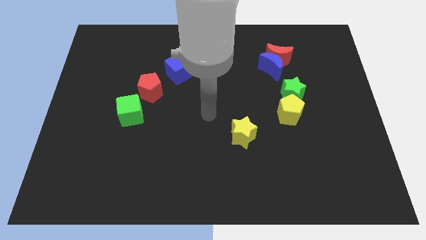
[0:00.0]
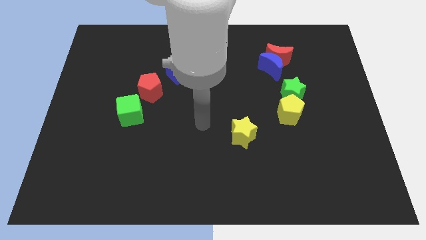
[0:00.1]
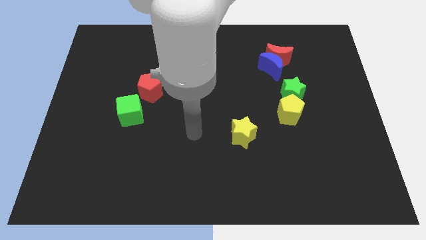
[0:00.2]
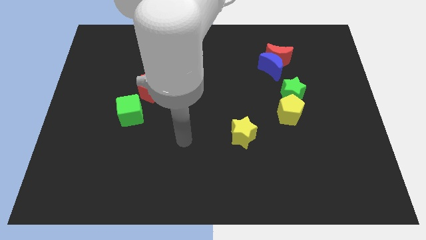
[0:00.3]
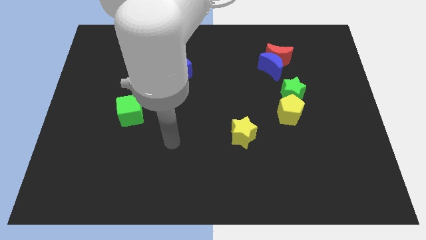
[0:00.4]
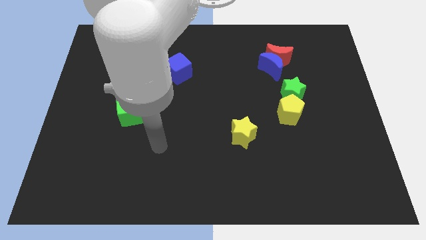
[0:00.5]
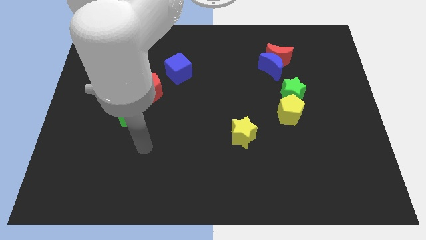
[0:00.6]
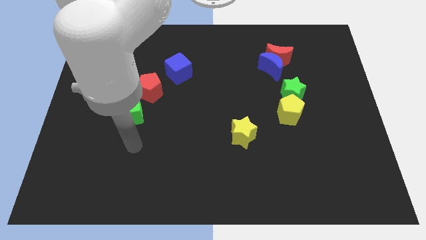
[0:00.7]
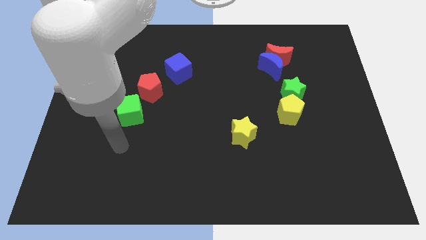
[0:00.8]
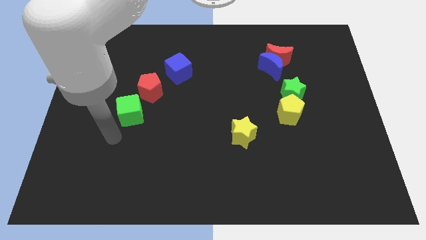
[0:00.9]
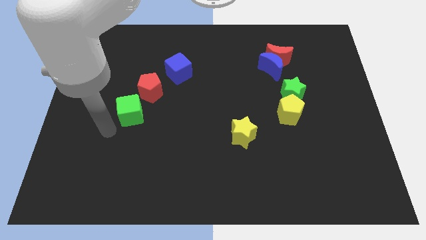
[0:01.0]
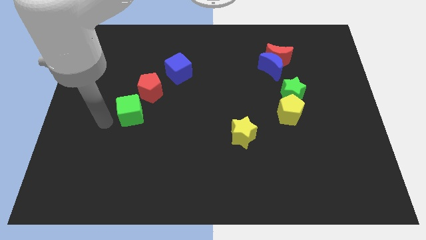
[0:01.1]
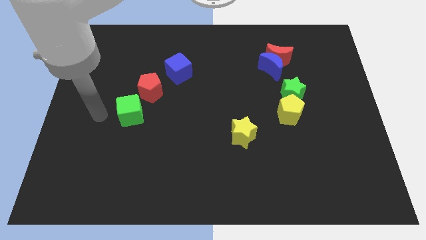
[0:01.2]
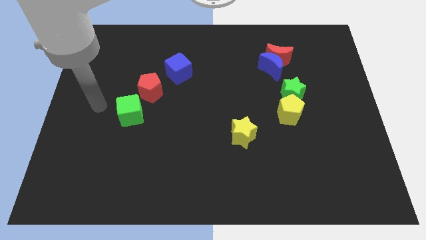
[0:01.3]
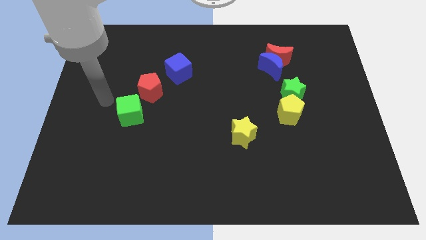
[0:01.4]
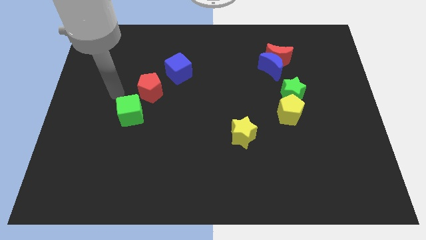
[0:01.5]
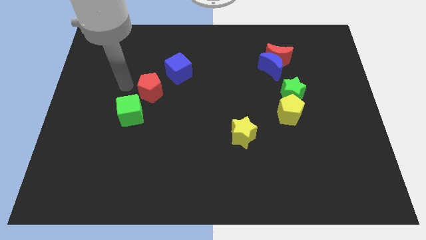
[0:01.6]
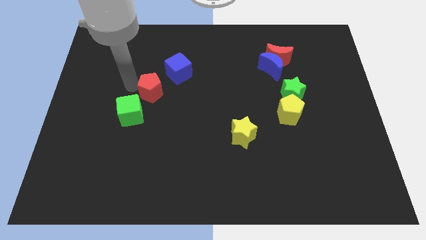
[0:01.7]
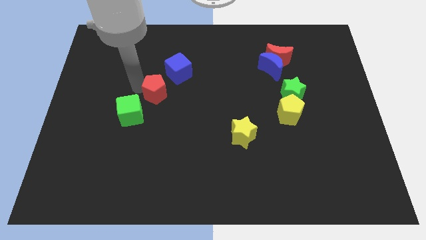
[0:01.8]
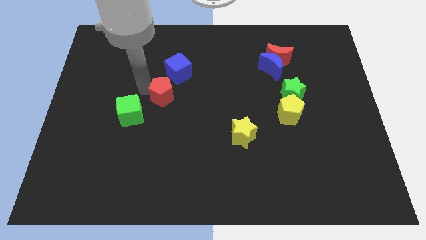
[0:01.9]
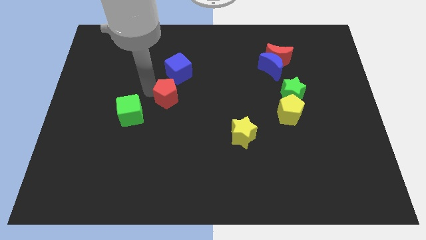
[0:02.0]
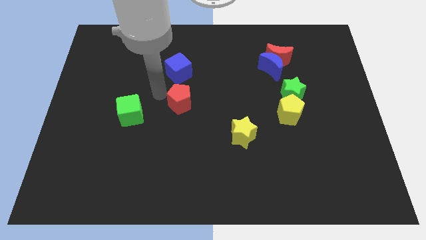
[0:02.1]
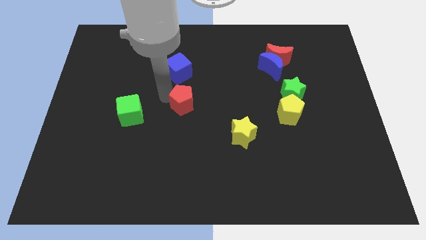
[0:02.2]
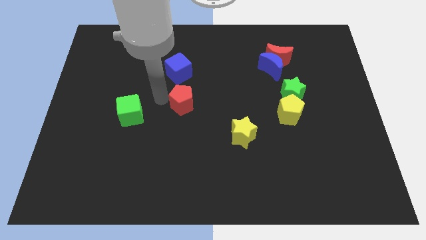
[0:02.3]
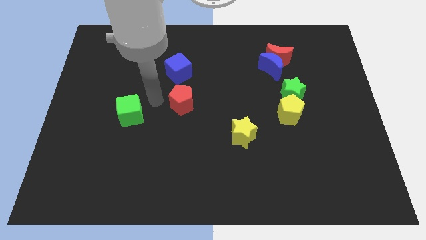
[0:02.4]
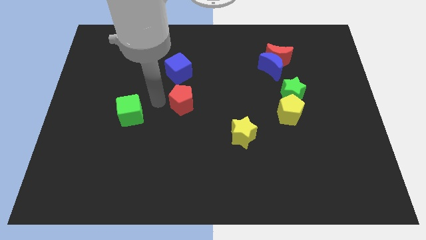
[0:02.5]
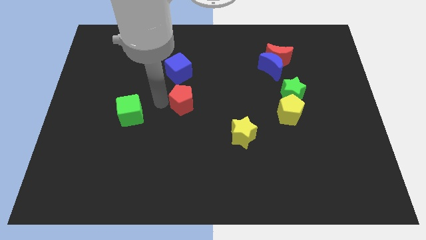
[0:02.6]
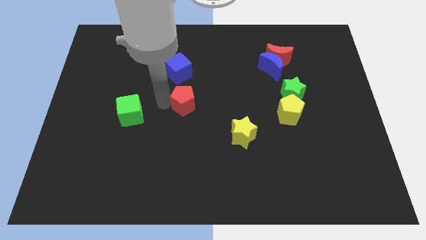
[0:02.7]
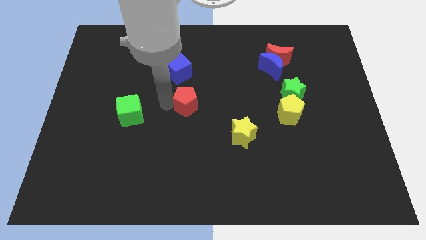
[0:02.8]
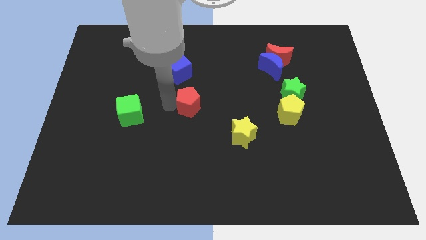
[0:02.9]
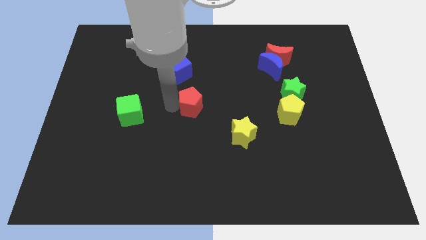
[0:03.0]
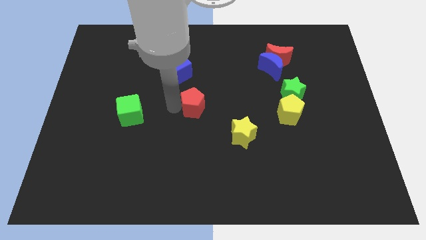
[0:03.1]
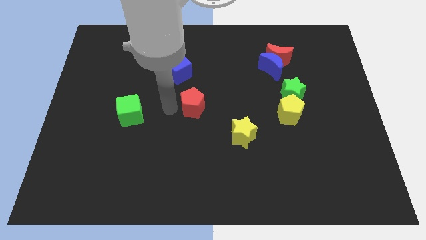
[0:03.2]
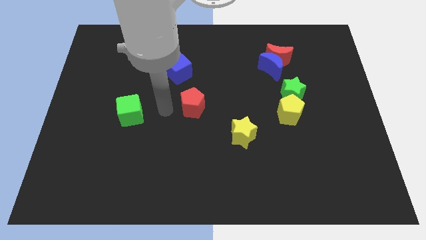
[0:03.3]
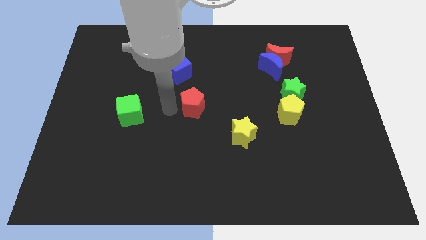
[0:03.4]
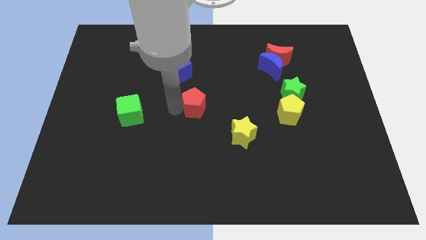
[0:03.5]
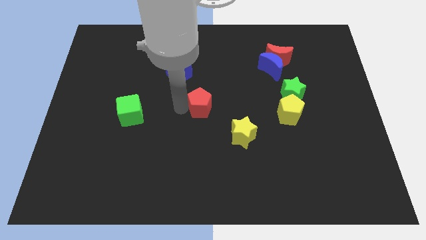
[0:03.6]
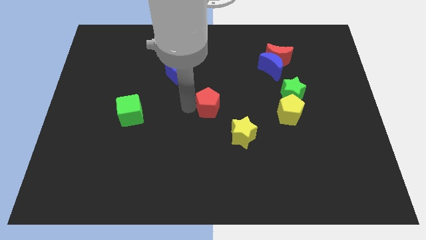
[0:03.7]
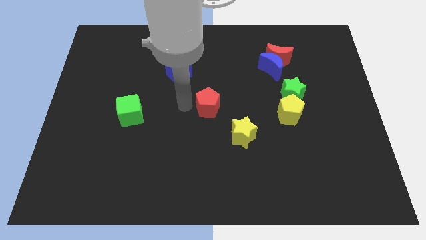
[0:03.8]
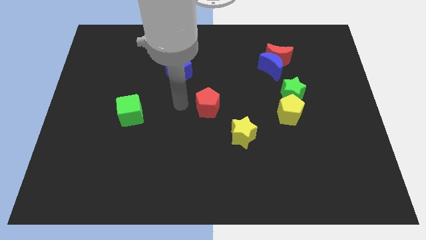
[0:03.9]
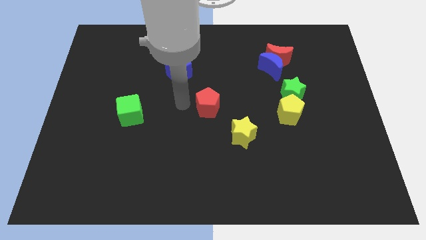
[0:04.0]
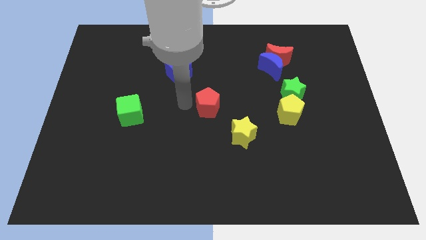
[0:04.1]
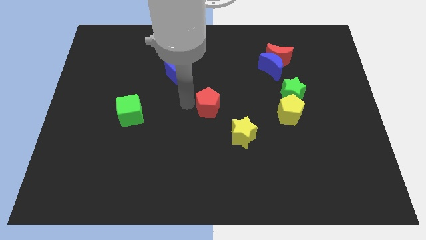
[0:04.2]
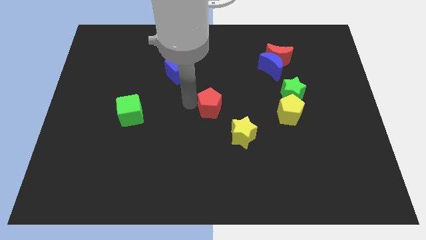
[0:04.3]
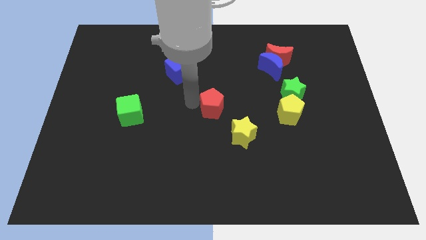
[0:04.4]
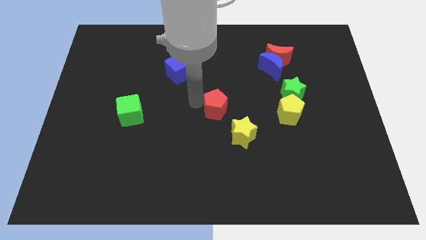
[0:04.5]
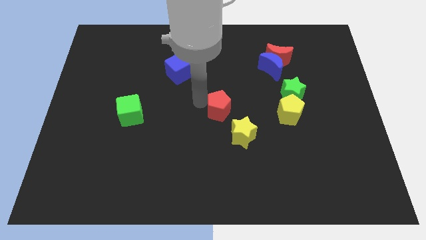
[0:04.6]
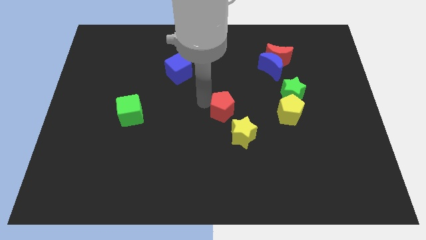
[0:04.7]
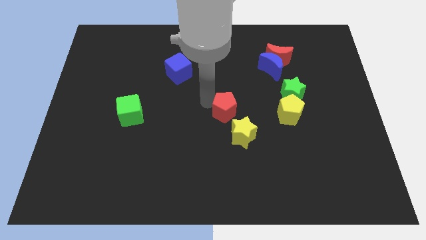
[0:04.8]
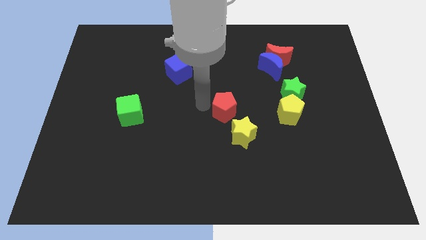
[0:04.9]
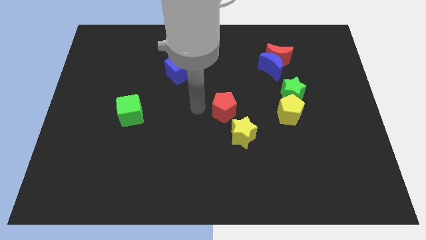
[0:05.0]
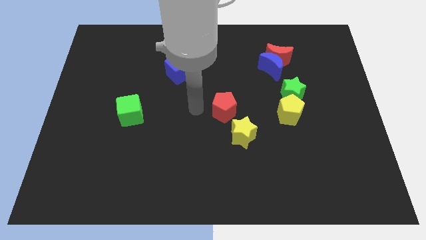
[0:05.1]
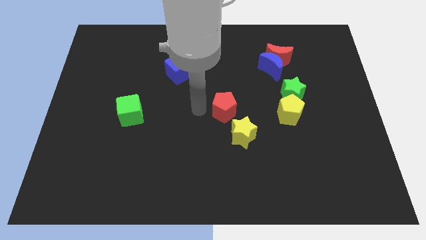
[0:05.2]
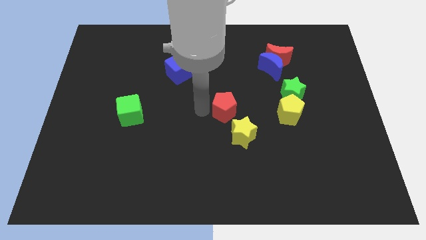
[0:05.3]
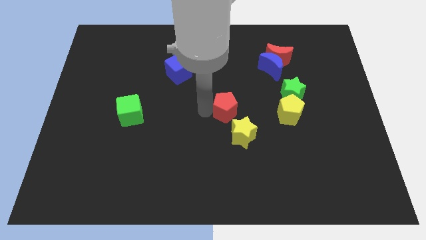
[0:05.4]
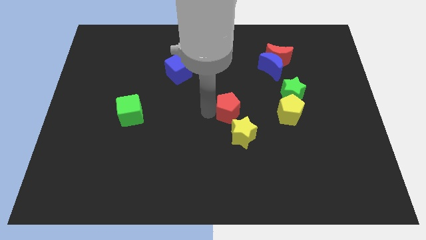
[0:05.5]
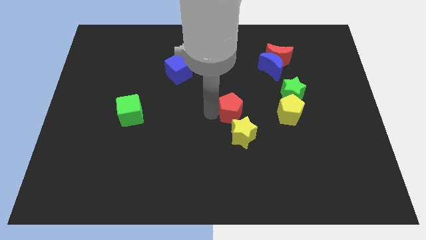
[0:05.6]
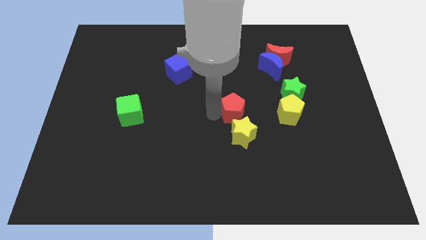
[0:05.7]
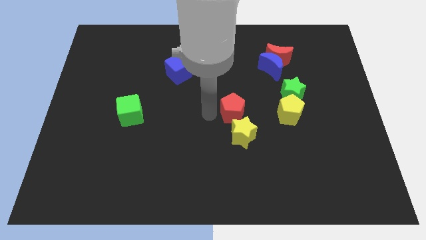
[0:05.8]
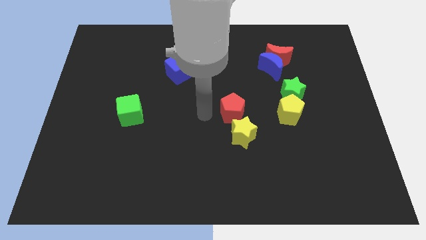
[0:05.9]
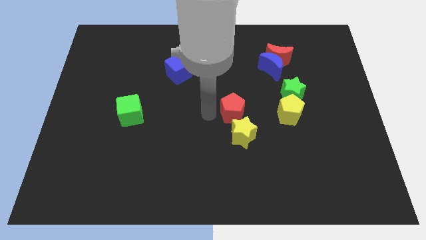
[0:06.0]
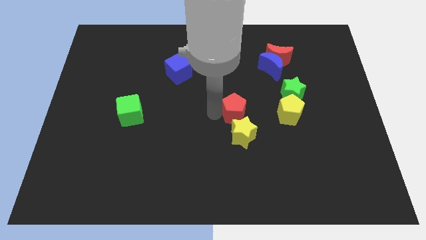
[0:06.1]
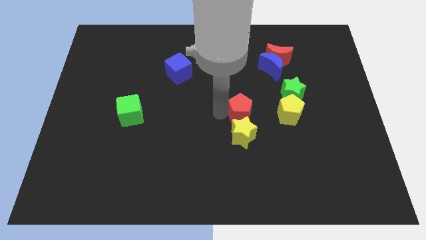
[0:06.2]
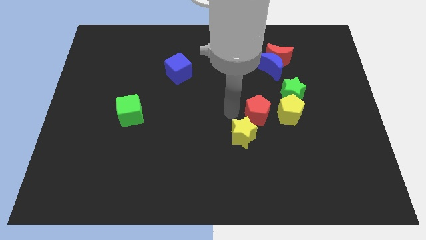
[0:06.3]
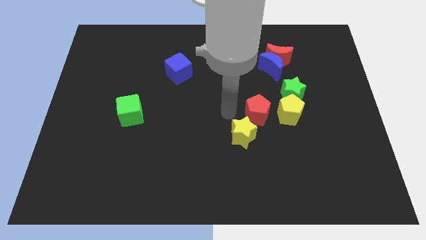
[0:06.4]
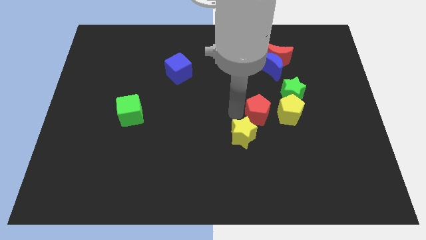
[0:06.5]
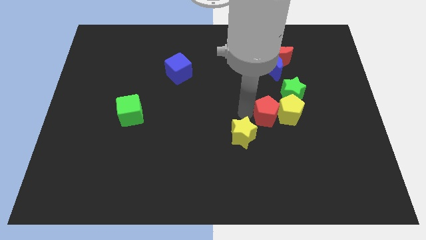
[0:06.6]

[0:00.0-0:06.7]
slide the red pentagon close to the yellow pentagon
